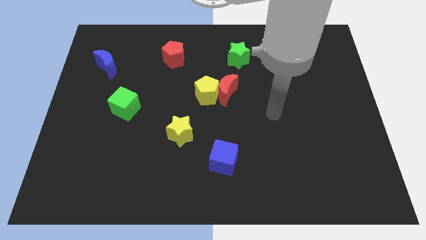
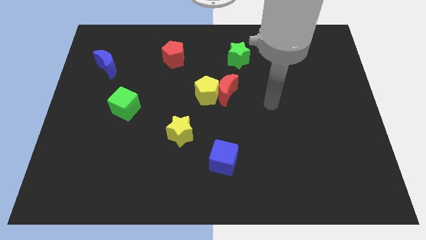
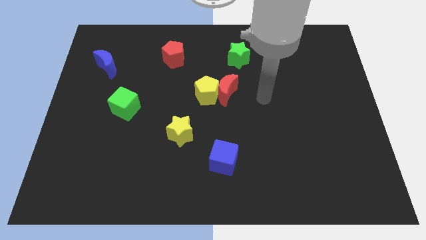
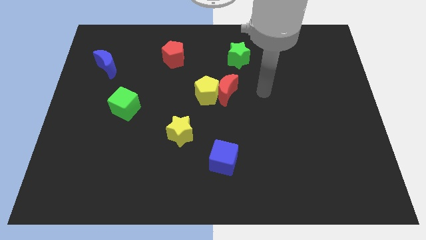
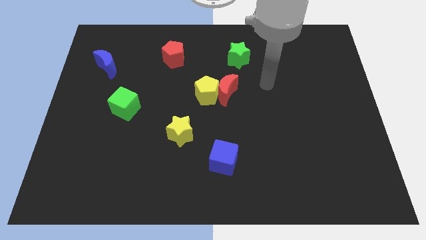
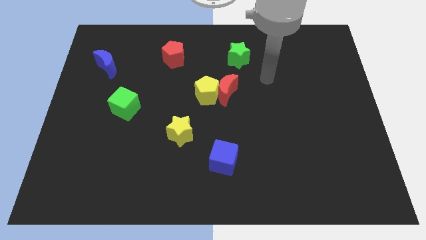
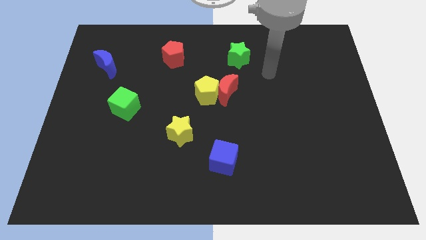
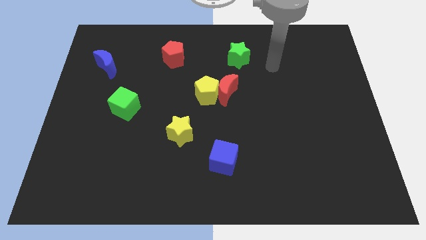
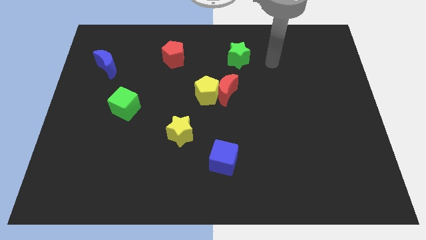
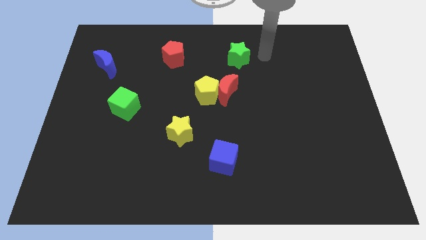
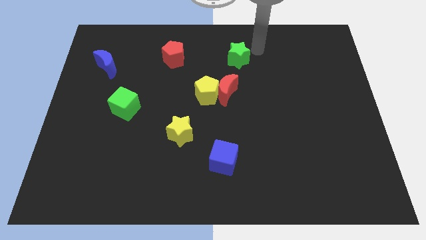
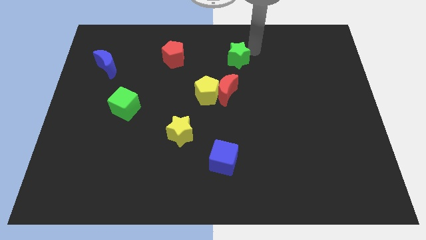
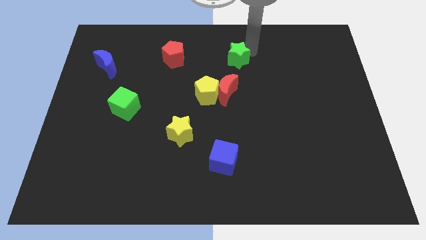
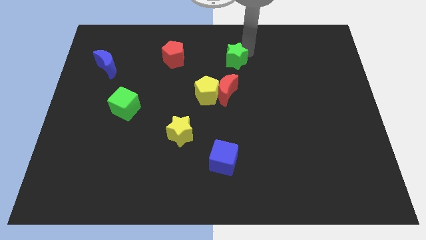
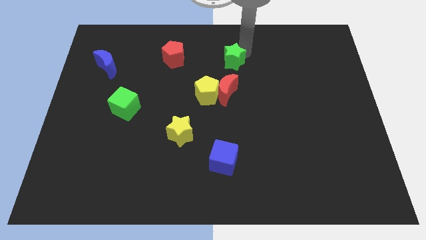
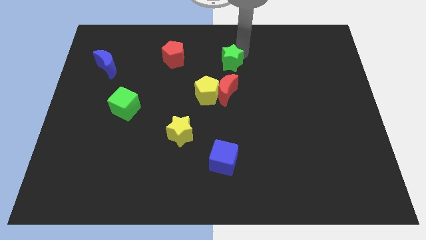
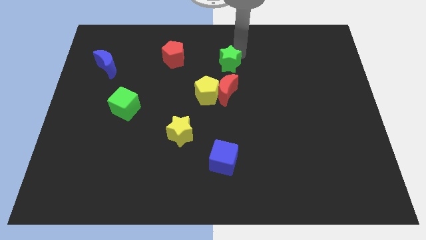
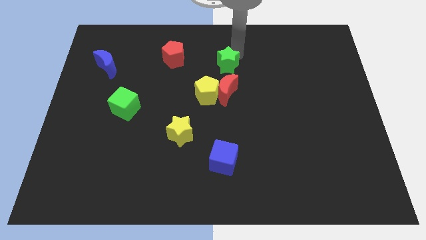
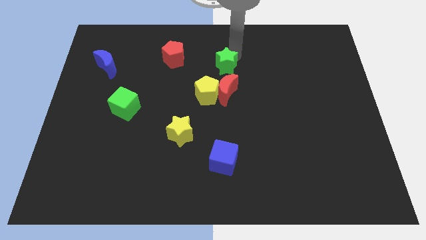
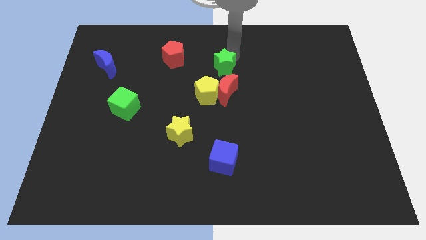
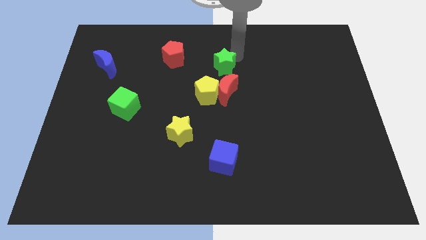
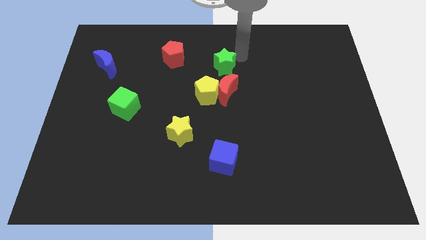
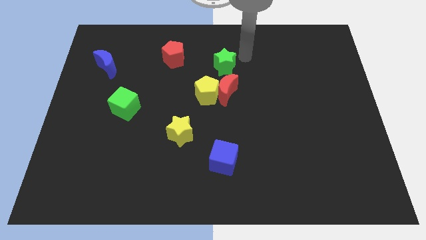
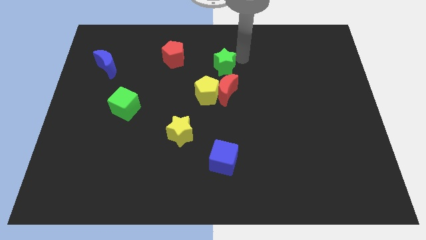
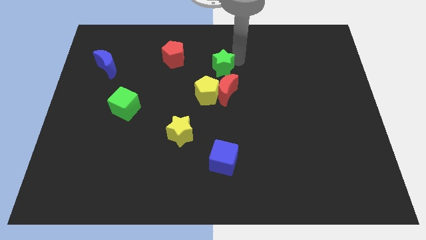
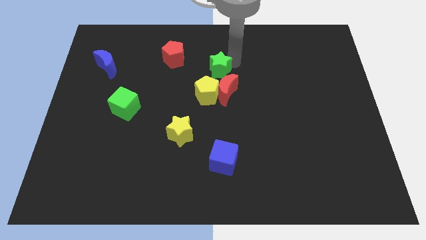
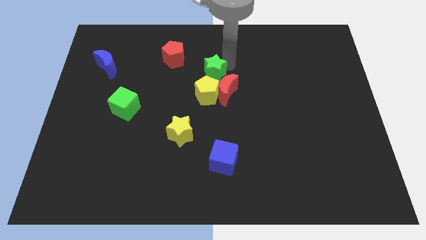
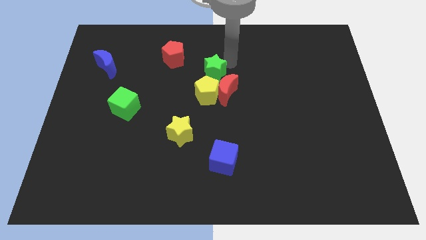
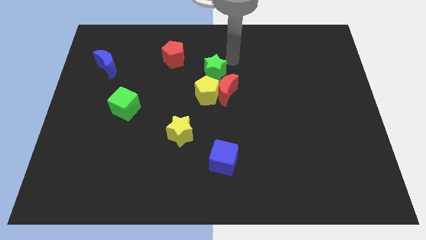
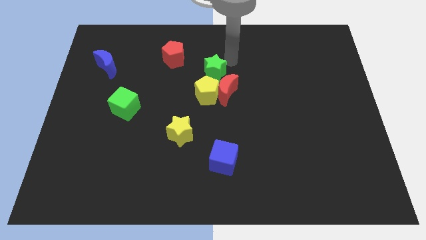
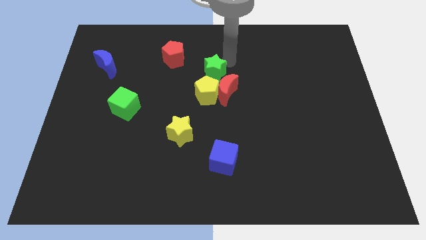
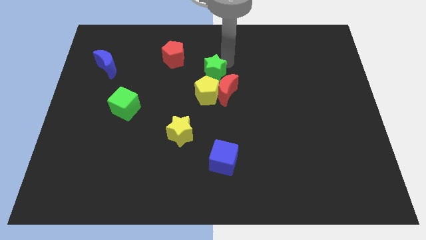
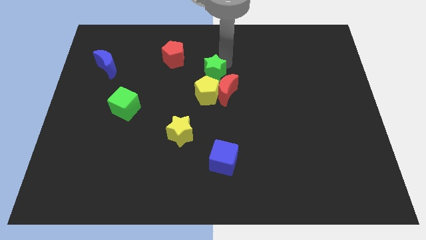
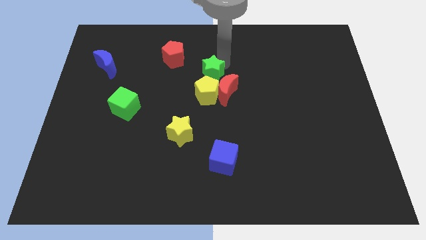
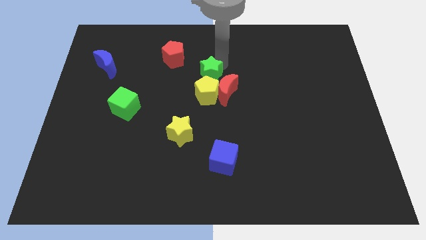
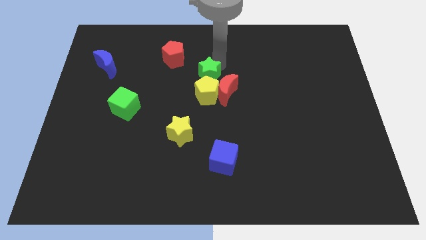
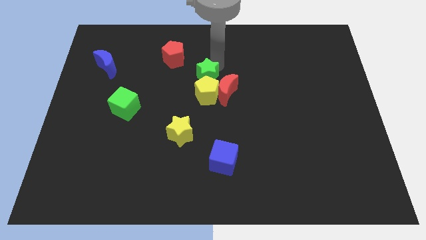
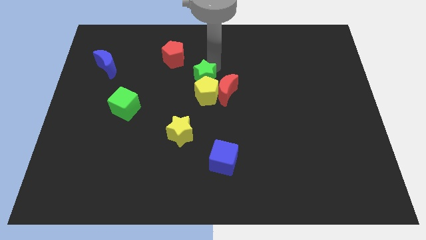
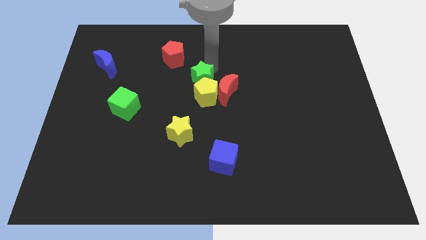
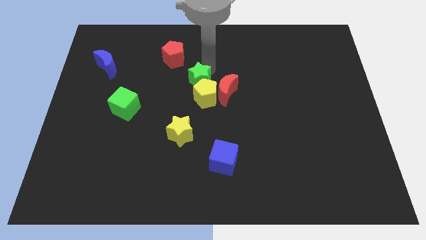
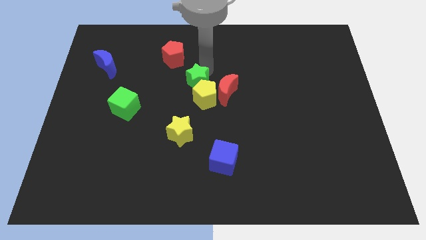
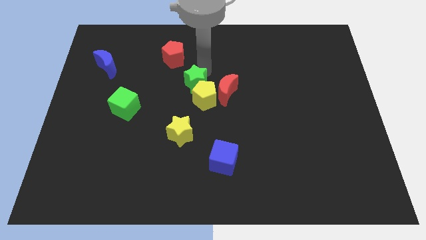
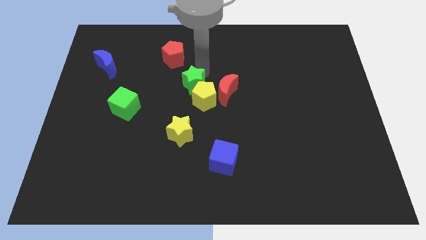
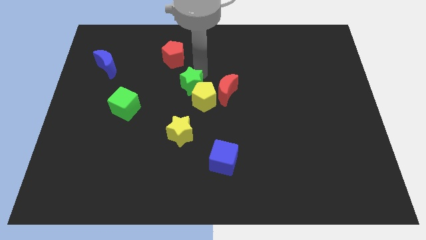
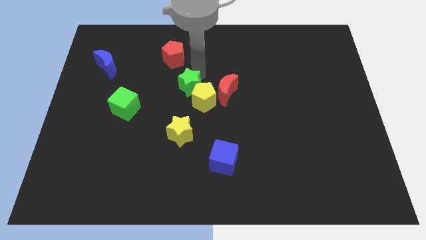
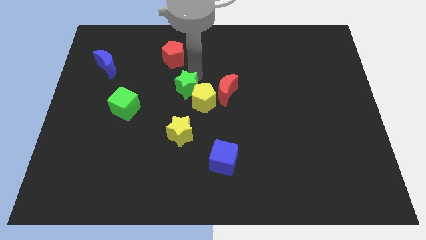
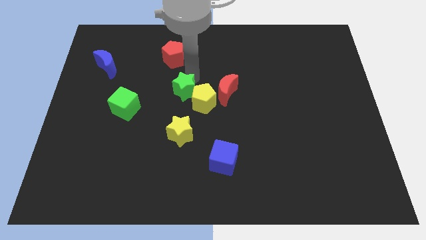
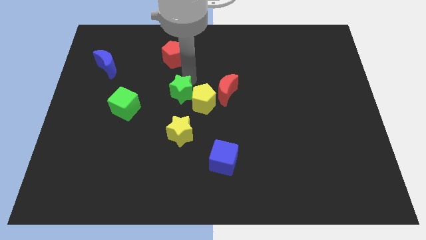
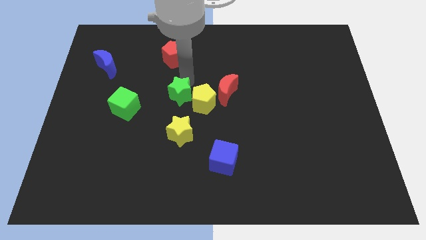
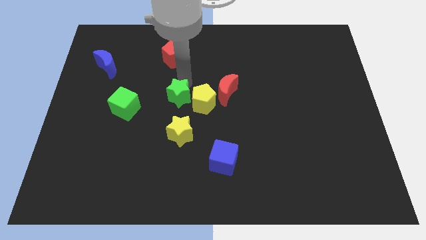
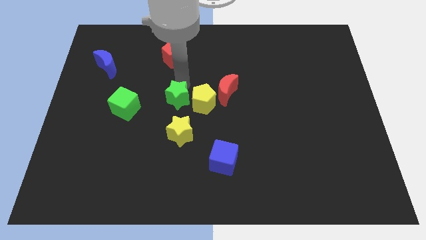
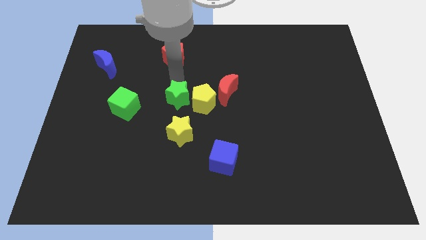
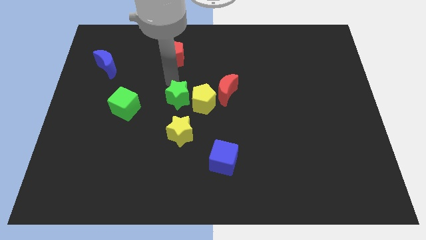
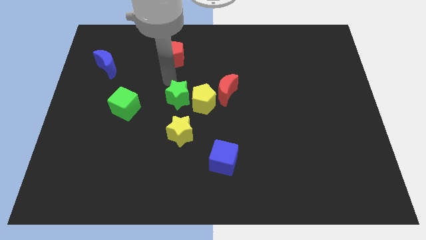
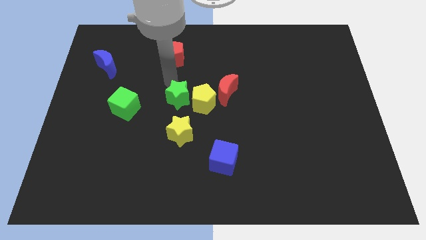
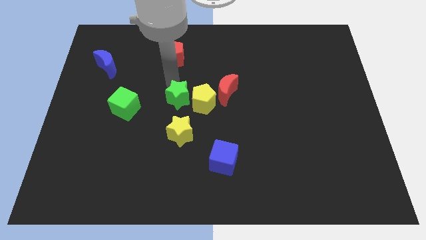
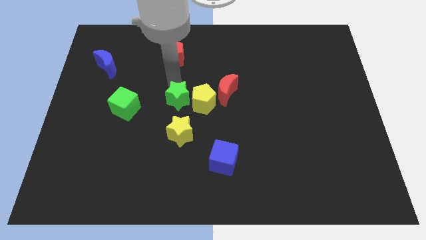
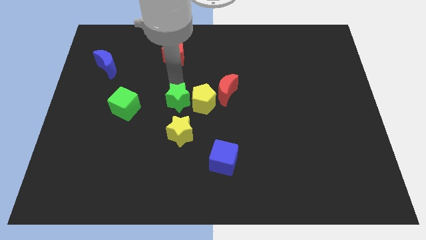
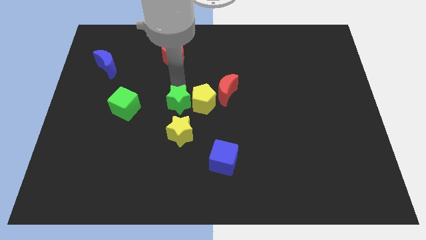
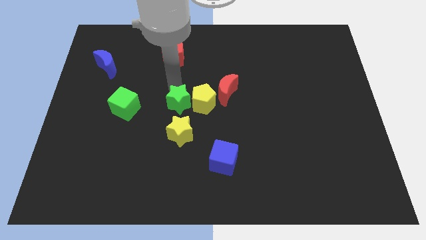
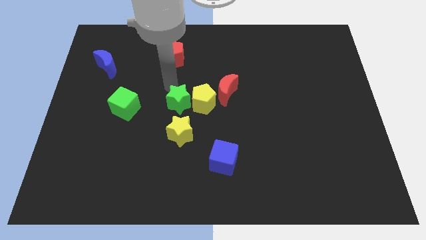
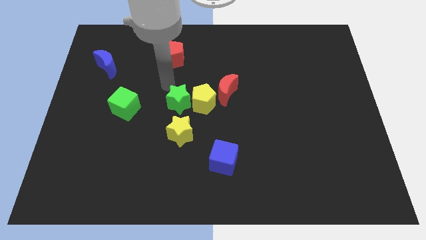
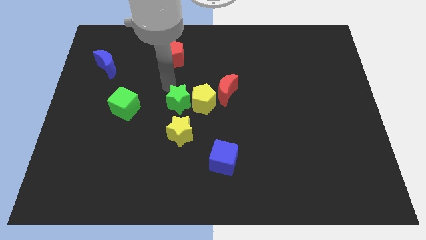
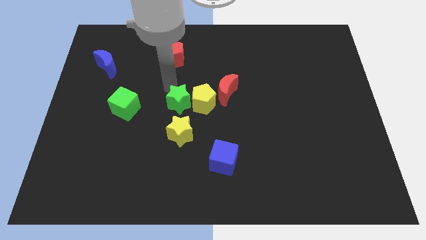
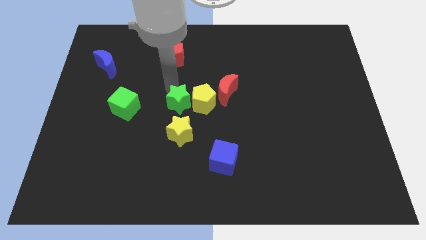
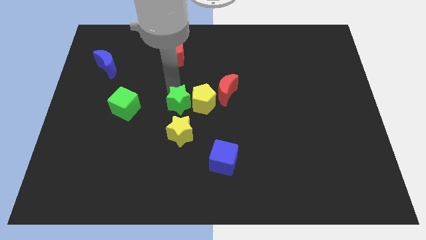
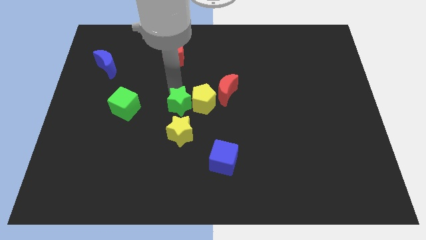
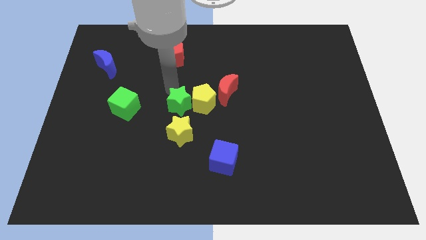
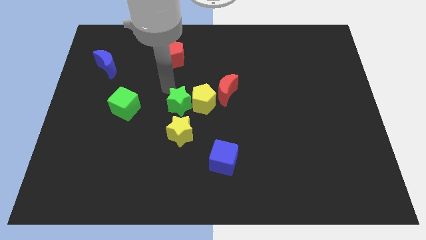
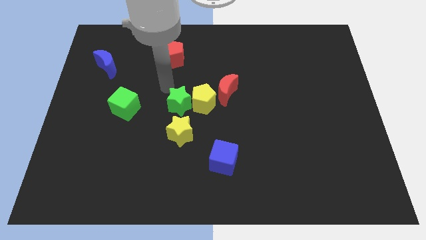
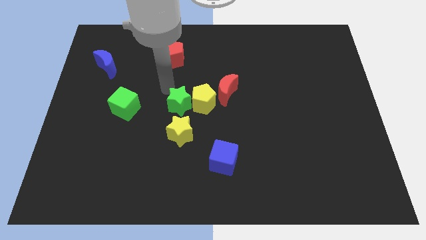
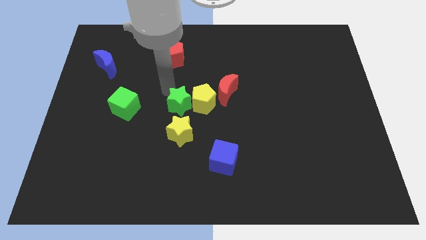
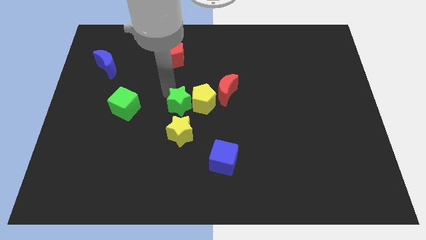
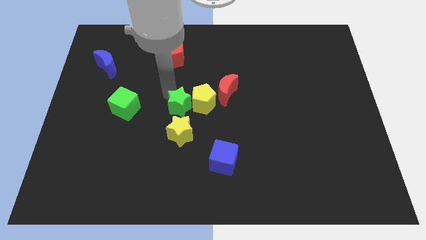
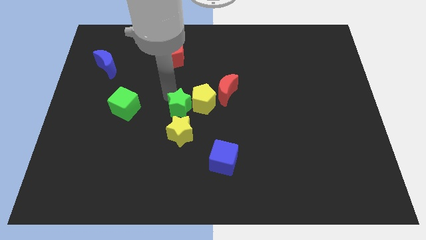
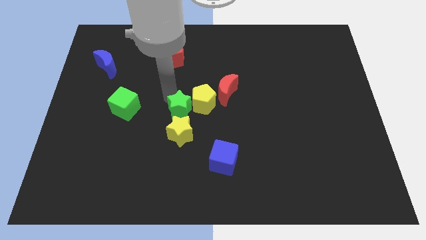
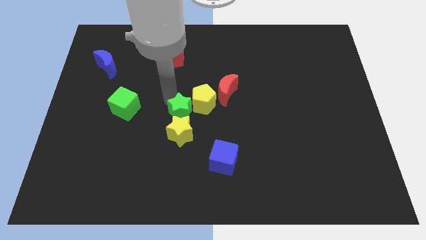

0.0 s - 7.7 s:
slide the green star towards the yellow star
